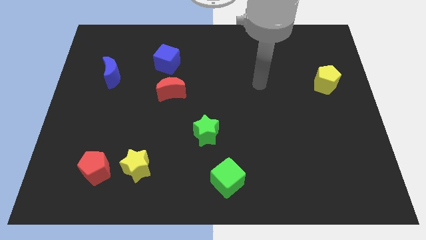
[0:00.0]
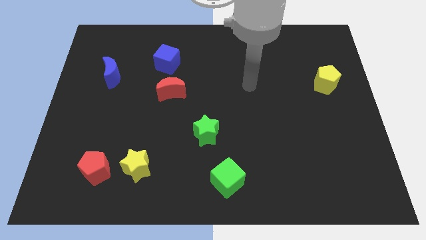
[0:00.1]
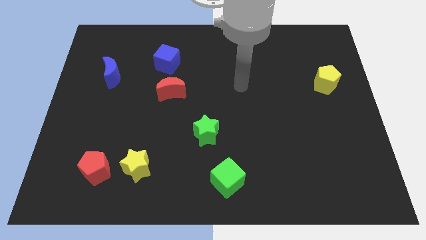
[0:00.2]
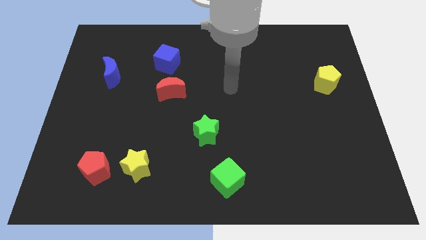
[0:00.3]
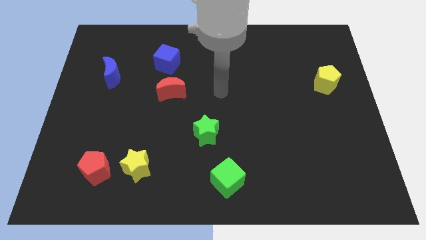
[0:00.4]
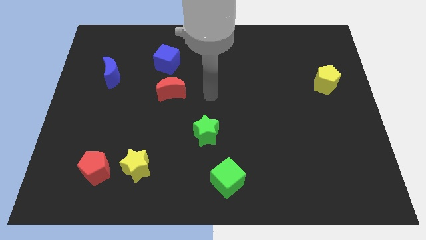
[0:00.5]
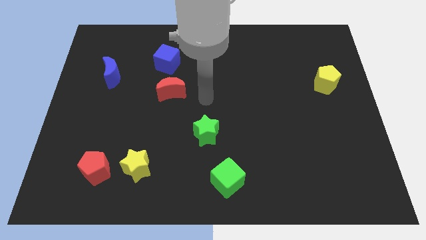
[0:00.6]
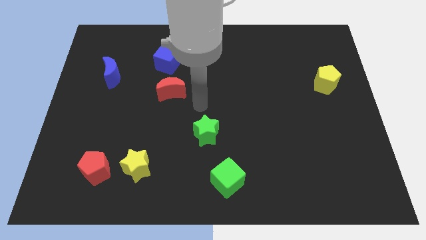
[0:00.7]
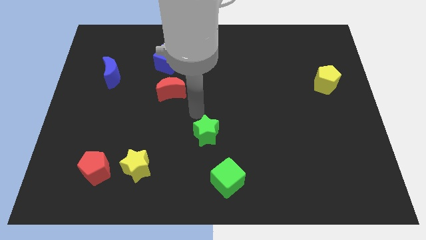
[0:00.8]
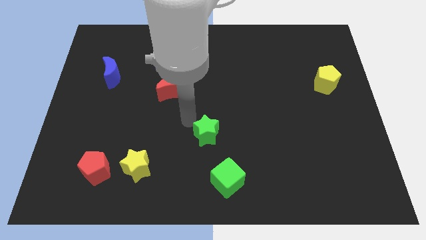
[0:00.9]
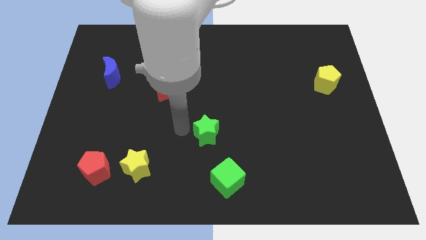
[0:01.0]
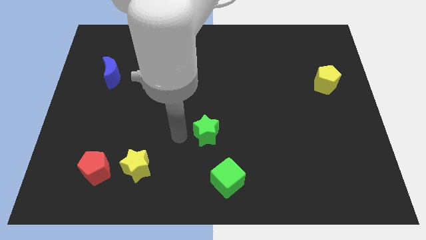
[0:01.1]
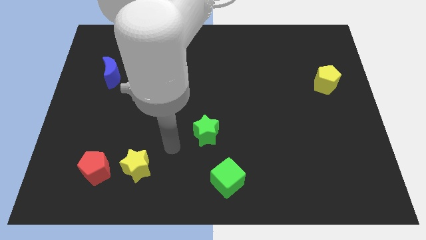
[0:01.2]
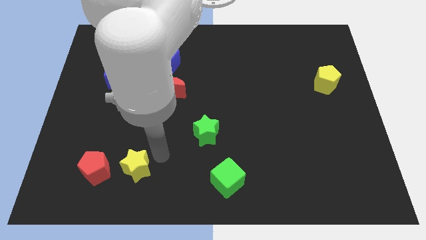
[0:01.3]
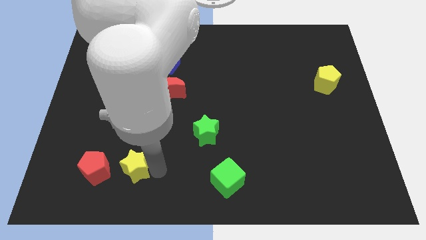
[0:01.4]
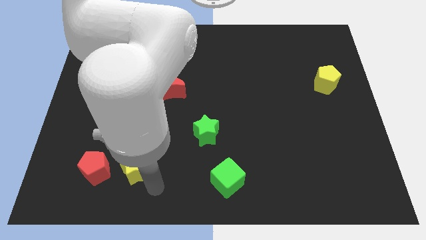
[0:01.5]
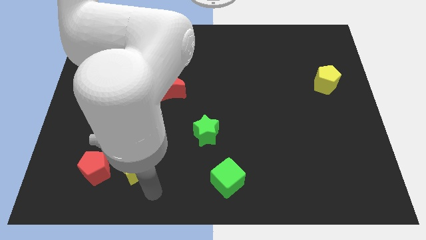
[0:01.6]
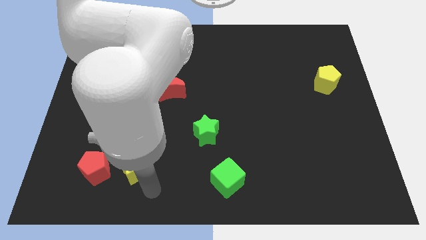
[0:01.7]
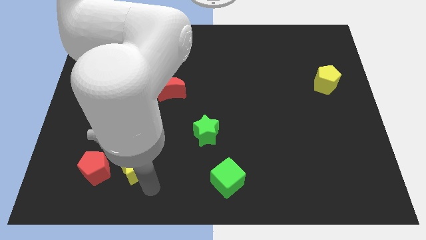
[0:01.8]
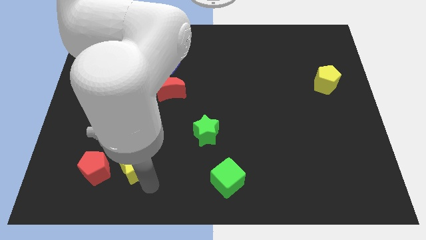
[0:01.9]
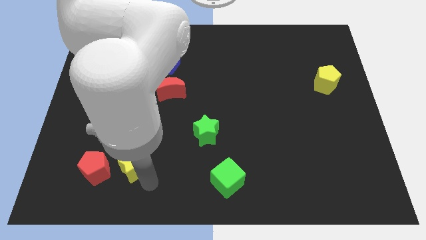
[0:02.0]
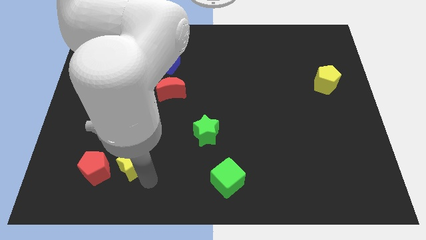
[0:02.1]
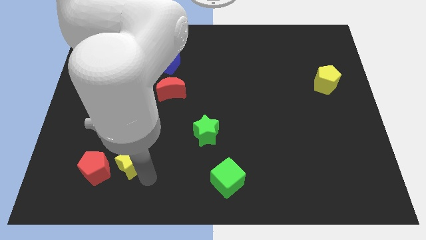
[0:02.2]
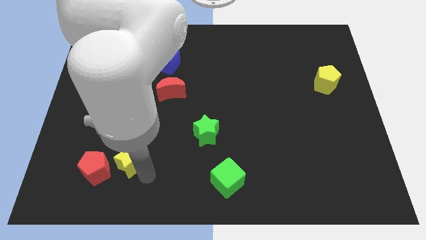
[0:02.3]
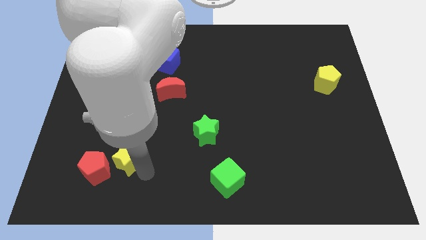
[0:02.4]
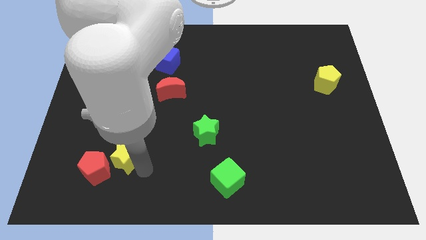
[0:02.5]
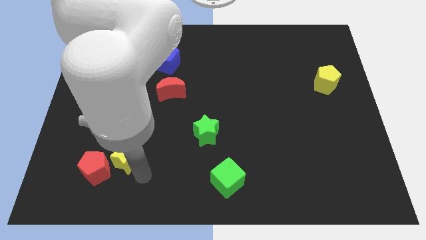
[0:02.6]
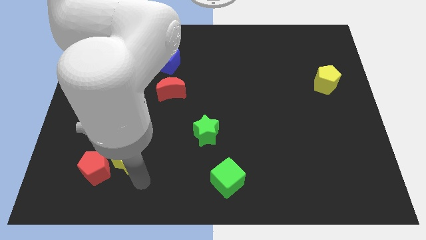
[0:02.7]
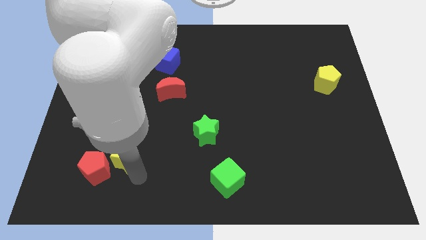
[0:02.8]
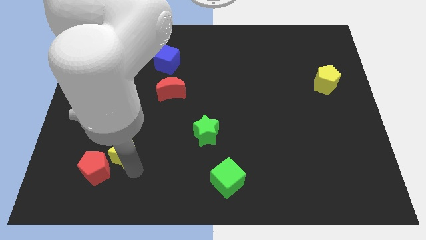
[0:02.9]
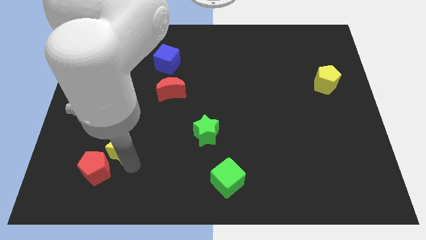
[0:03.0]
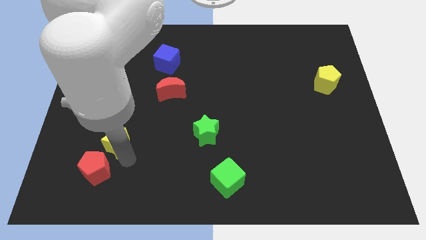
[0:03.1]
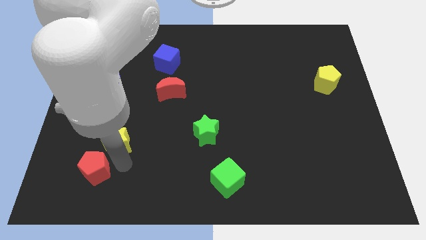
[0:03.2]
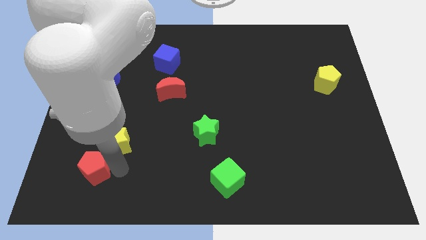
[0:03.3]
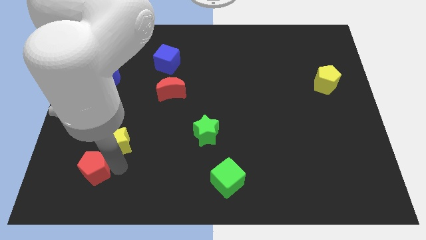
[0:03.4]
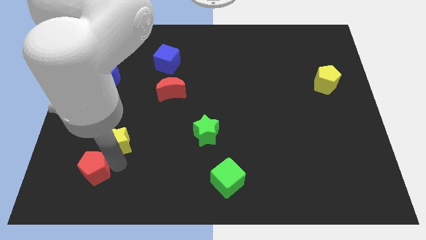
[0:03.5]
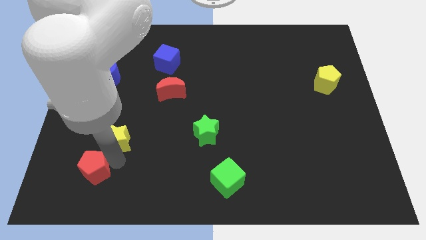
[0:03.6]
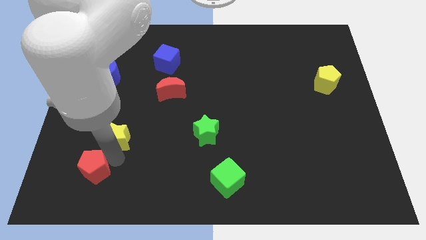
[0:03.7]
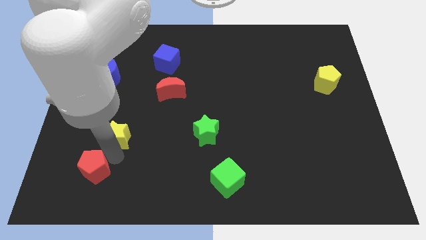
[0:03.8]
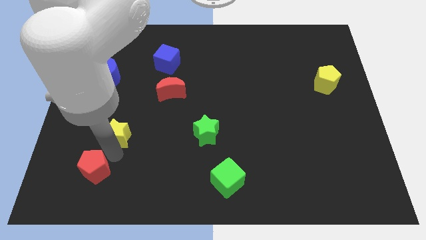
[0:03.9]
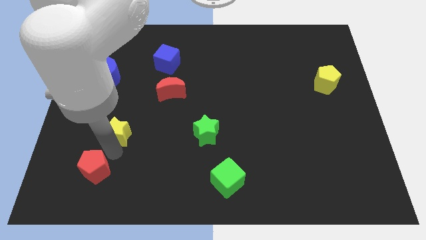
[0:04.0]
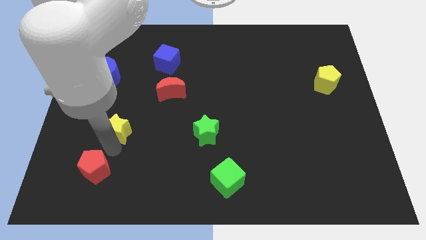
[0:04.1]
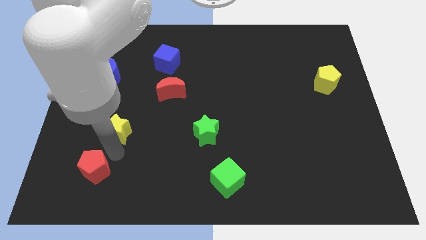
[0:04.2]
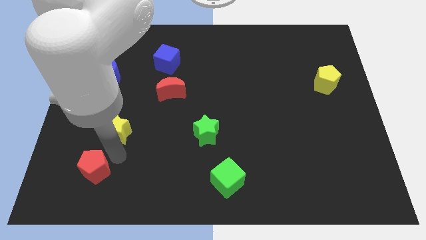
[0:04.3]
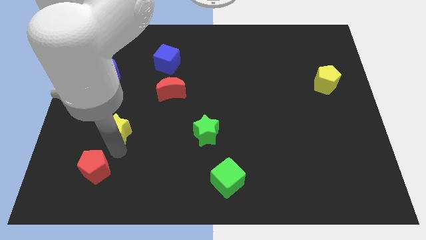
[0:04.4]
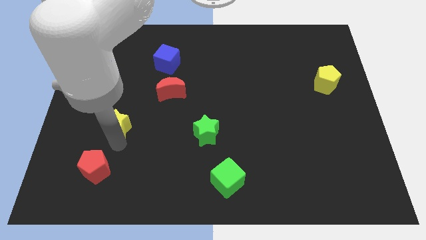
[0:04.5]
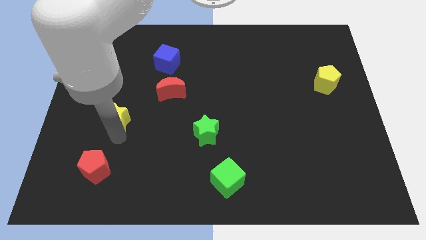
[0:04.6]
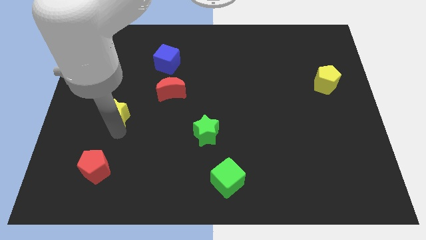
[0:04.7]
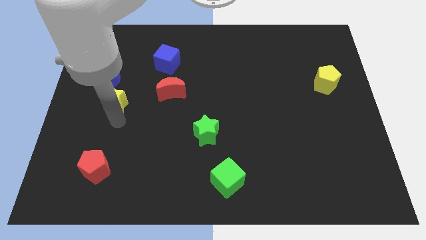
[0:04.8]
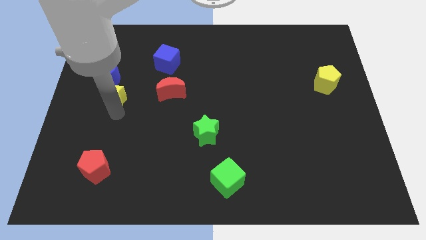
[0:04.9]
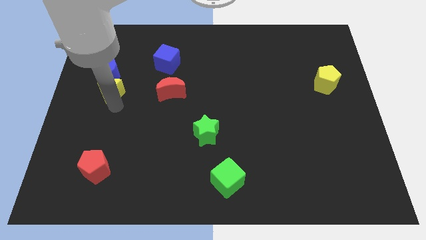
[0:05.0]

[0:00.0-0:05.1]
move the yellow star next to the blue moon

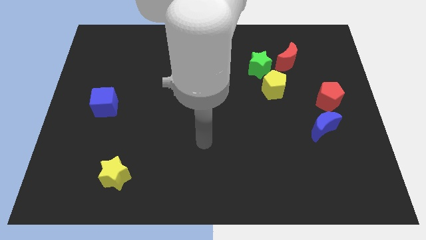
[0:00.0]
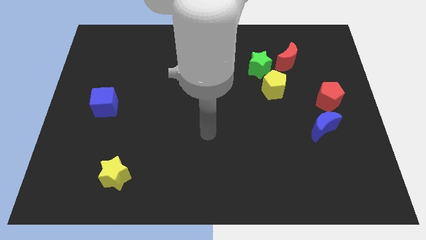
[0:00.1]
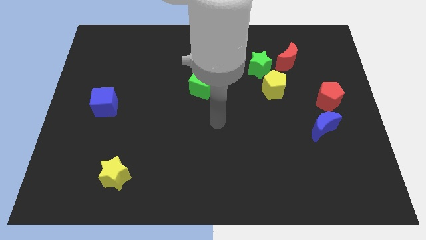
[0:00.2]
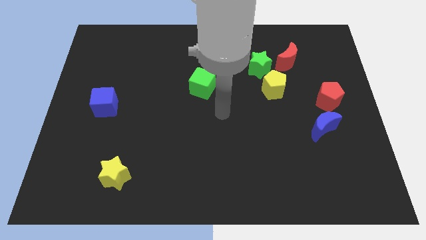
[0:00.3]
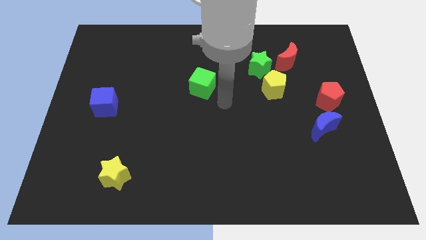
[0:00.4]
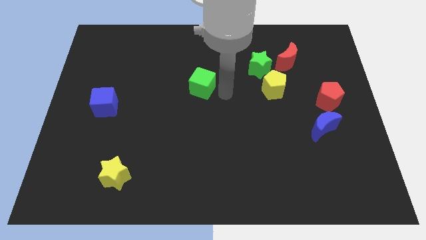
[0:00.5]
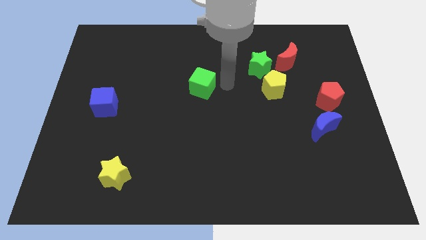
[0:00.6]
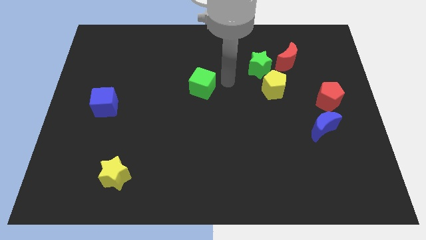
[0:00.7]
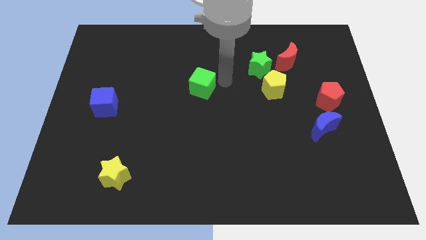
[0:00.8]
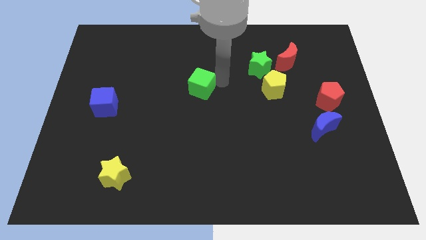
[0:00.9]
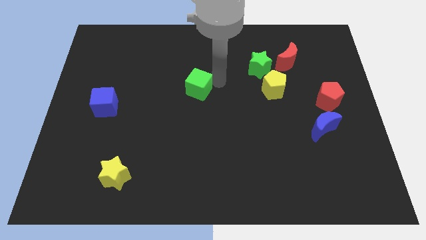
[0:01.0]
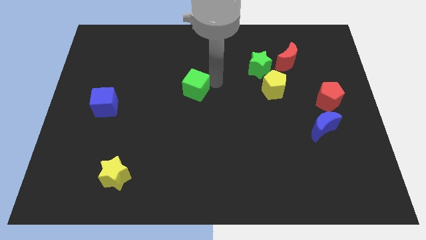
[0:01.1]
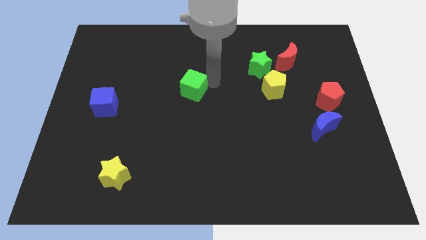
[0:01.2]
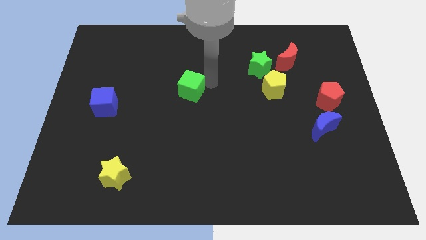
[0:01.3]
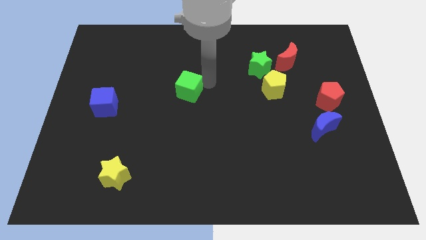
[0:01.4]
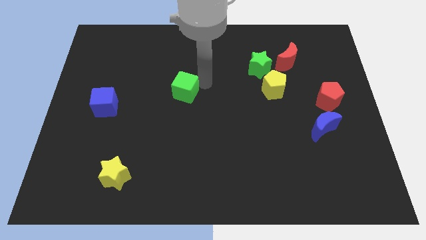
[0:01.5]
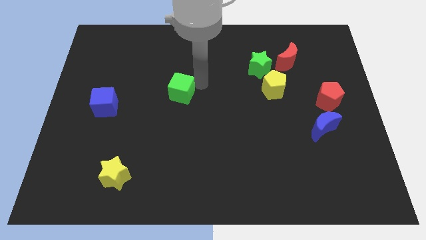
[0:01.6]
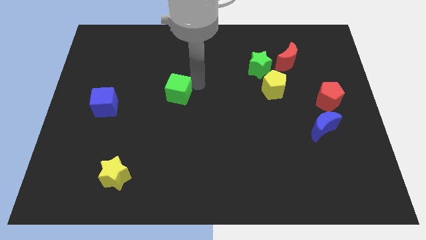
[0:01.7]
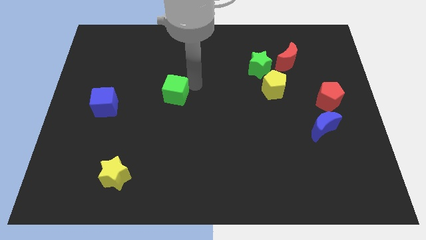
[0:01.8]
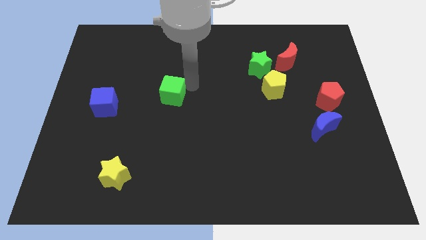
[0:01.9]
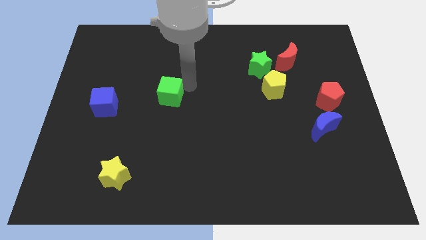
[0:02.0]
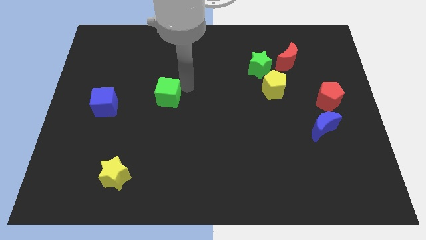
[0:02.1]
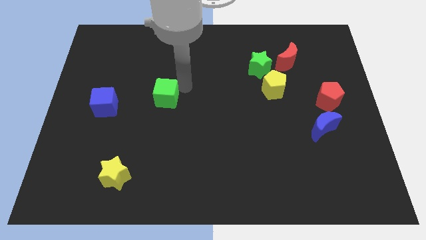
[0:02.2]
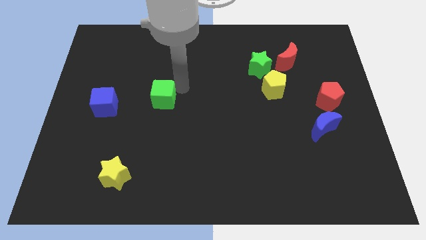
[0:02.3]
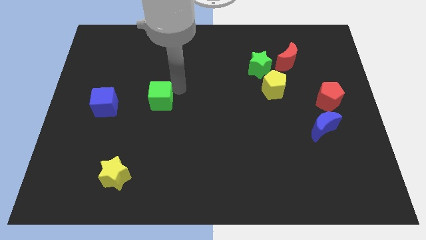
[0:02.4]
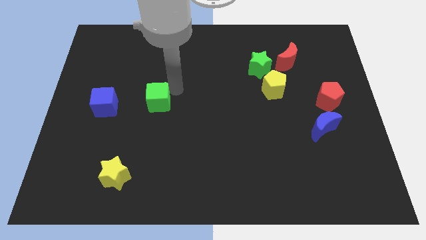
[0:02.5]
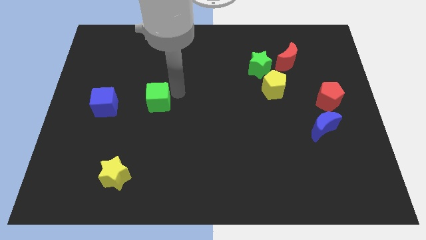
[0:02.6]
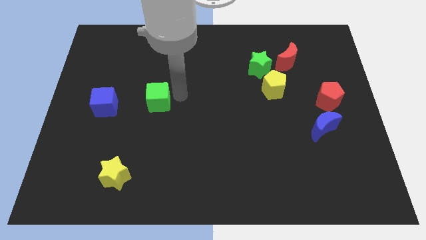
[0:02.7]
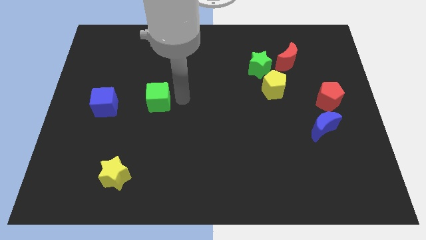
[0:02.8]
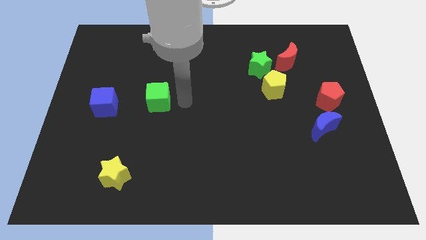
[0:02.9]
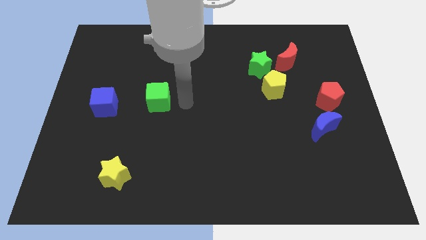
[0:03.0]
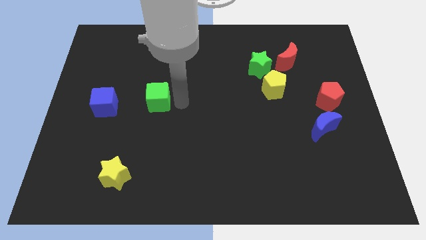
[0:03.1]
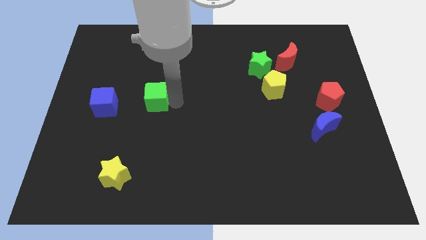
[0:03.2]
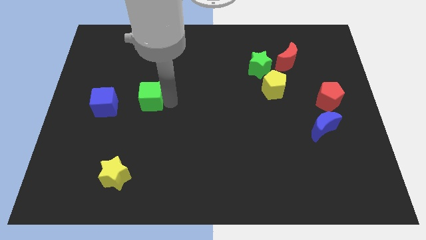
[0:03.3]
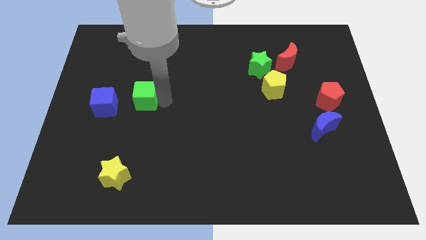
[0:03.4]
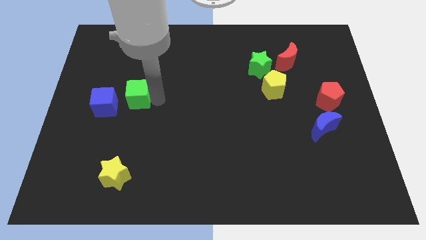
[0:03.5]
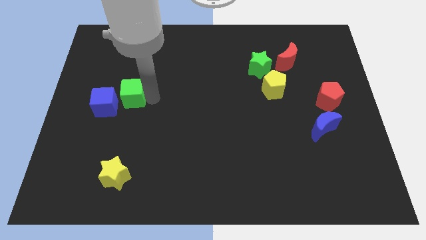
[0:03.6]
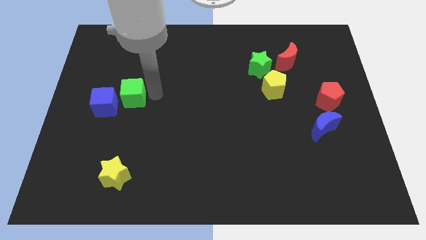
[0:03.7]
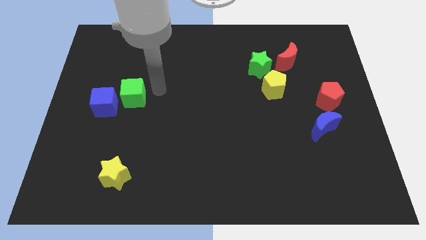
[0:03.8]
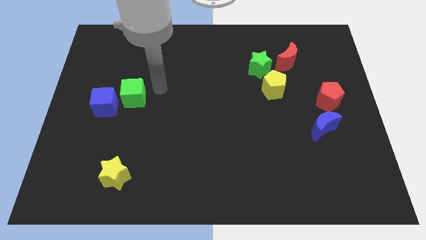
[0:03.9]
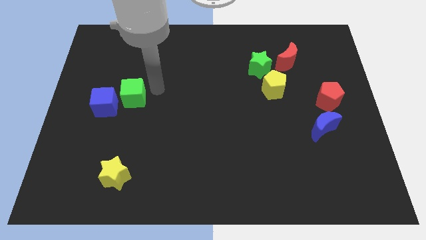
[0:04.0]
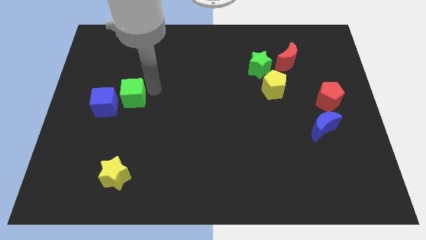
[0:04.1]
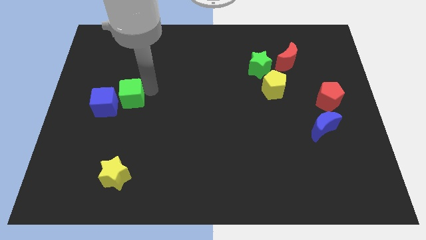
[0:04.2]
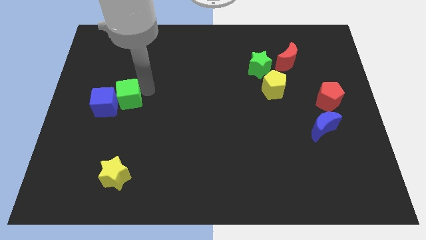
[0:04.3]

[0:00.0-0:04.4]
put the green cube to the blue cube
